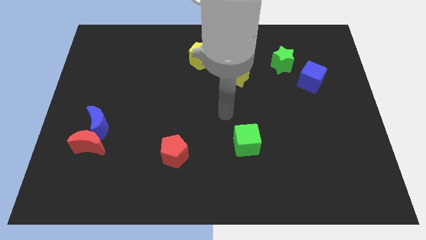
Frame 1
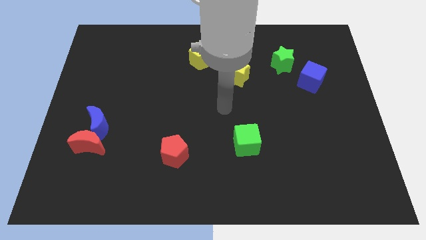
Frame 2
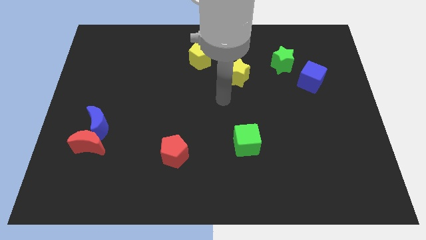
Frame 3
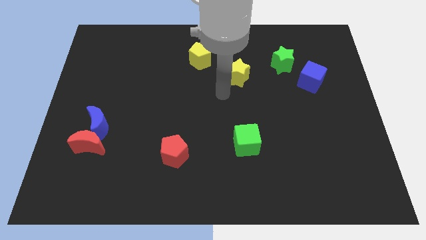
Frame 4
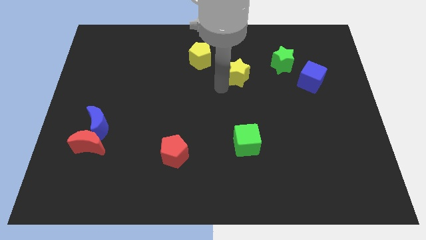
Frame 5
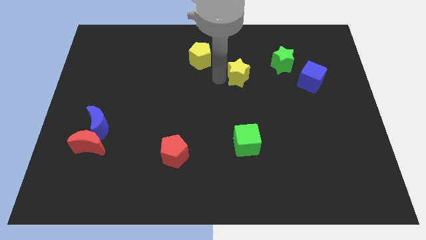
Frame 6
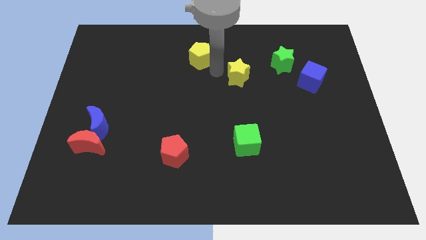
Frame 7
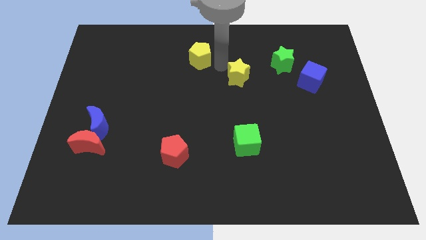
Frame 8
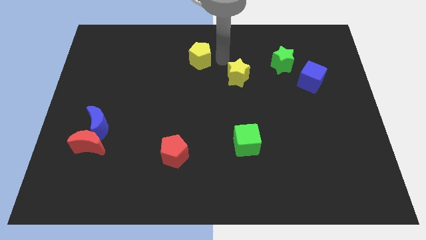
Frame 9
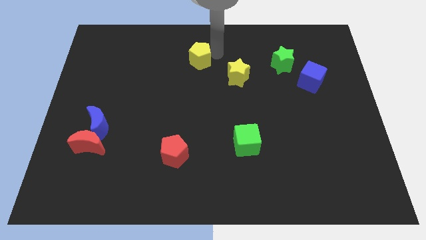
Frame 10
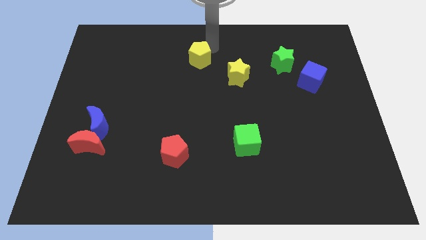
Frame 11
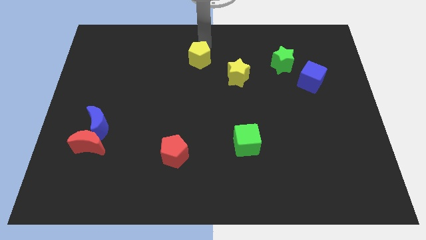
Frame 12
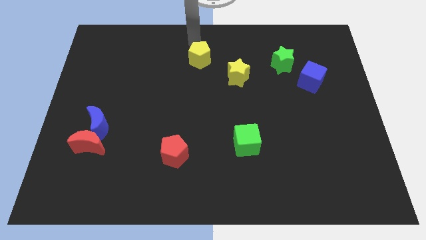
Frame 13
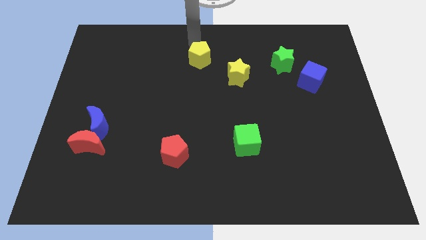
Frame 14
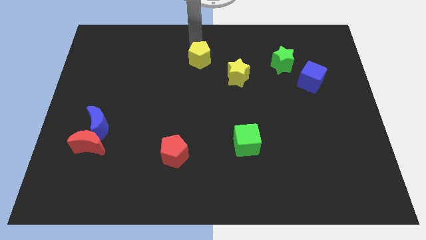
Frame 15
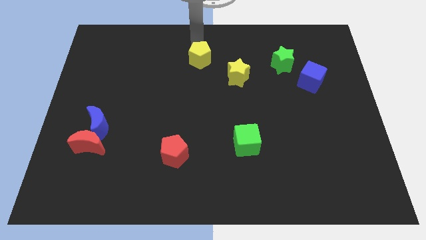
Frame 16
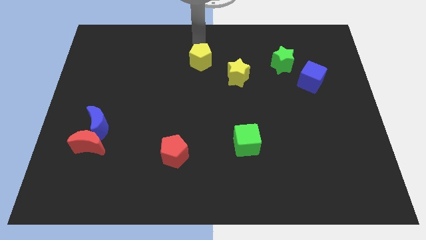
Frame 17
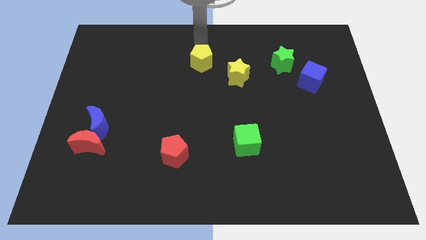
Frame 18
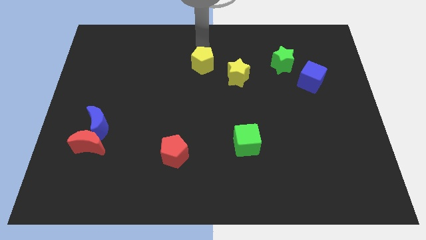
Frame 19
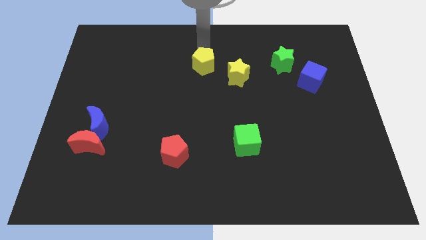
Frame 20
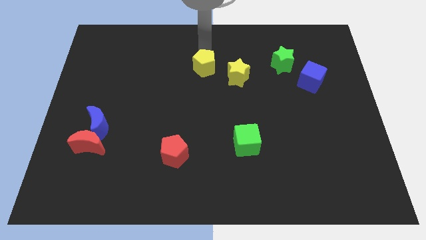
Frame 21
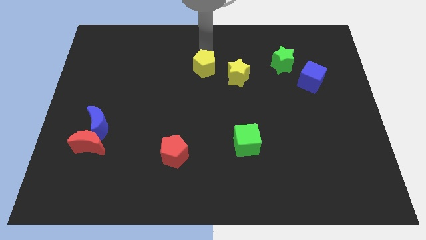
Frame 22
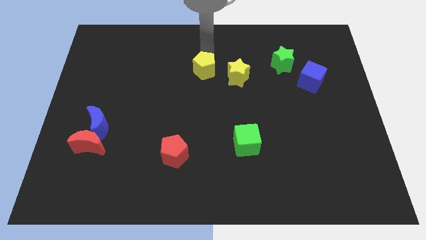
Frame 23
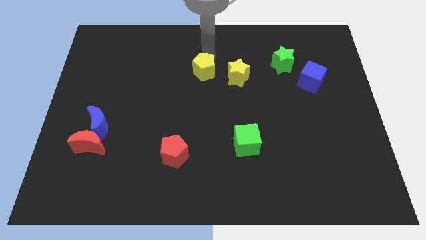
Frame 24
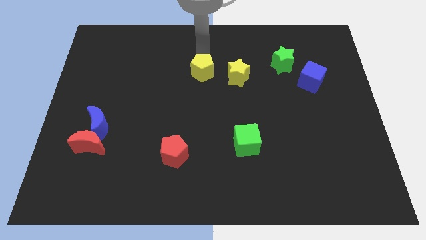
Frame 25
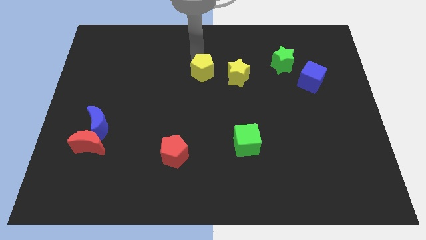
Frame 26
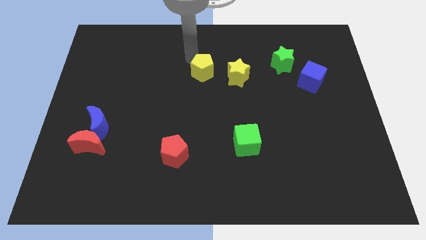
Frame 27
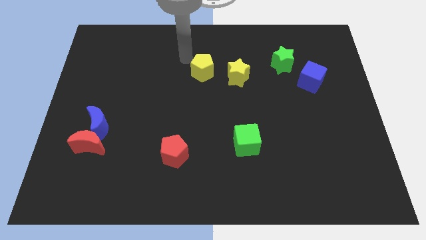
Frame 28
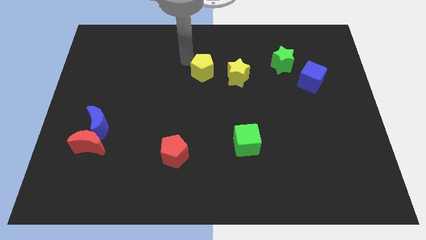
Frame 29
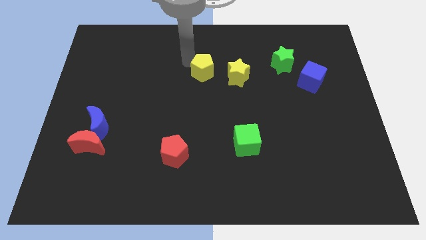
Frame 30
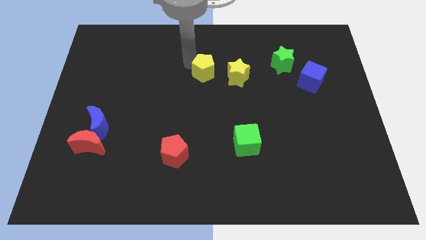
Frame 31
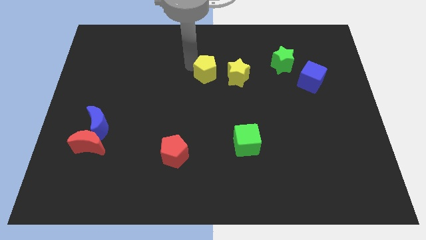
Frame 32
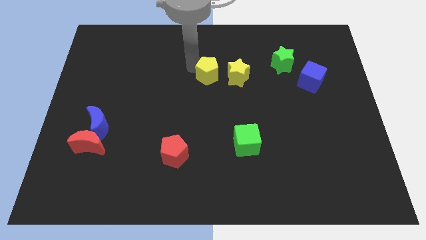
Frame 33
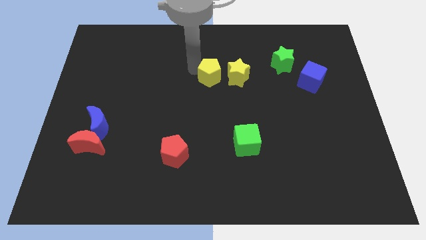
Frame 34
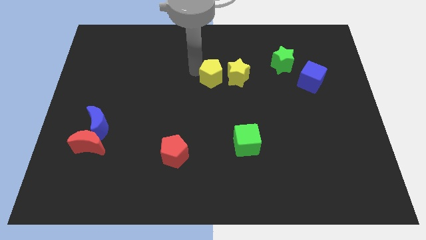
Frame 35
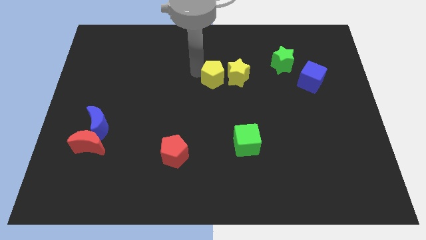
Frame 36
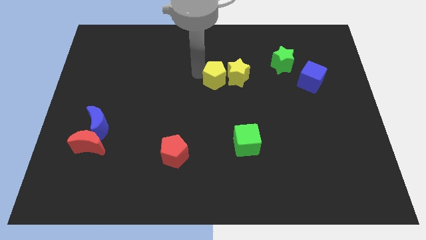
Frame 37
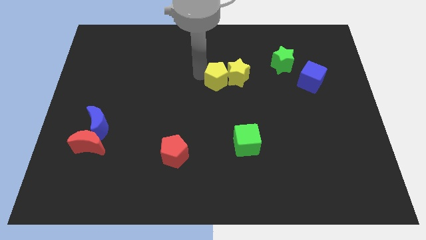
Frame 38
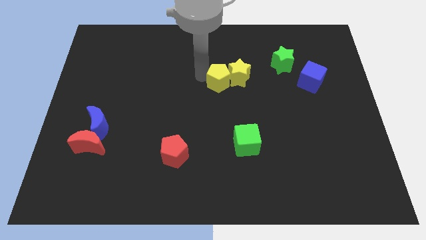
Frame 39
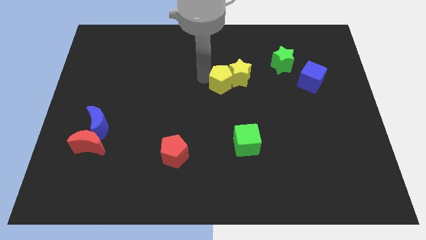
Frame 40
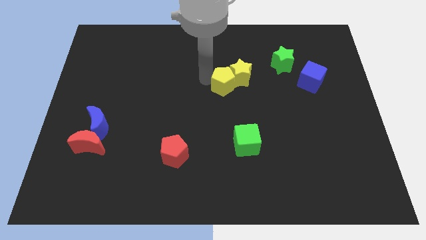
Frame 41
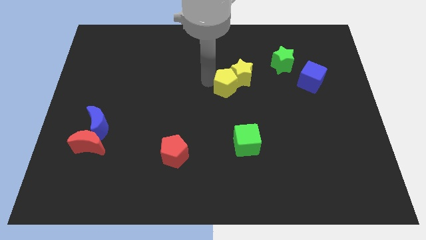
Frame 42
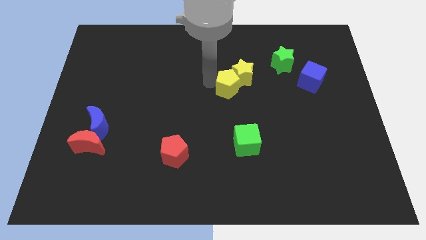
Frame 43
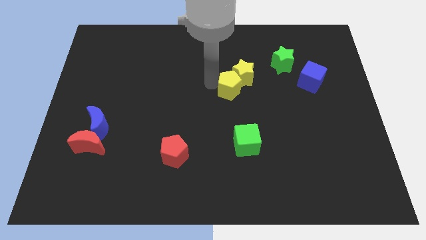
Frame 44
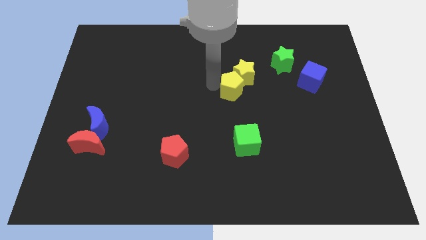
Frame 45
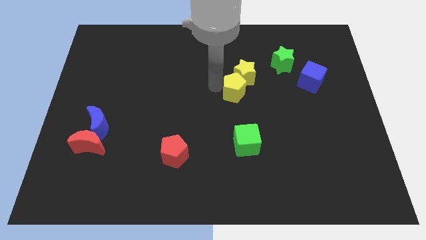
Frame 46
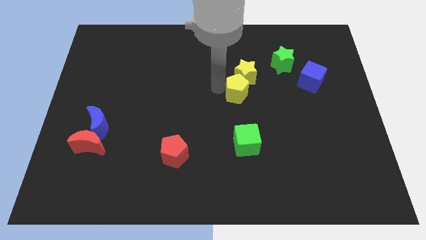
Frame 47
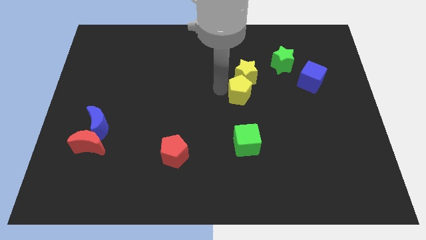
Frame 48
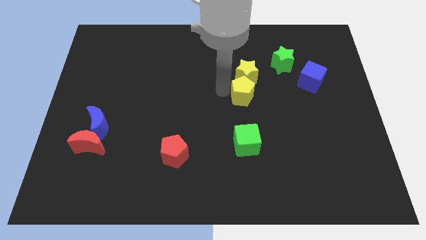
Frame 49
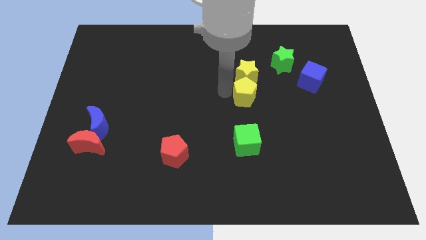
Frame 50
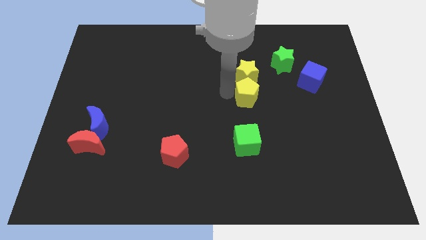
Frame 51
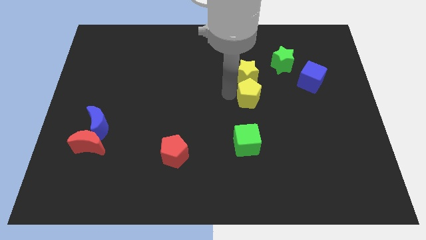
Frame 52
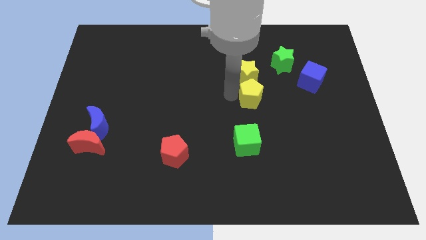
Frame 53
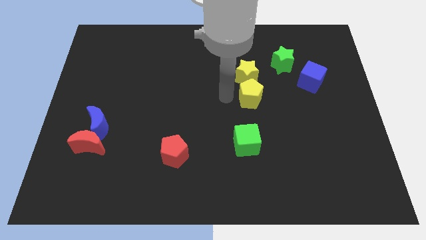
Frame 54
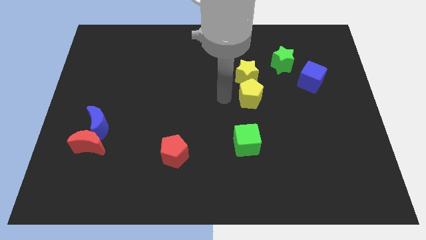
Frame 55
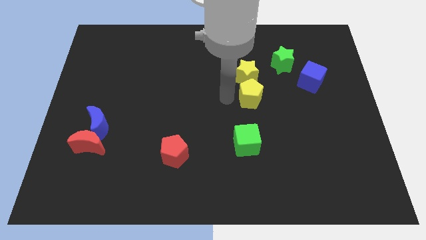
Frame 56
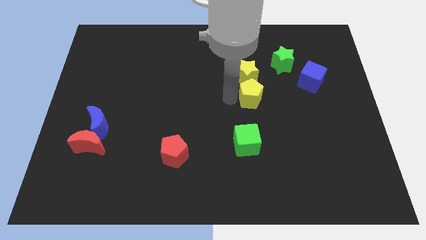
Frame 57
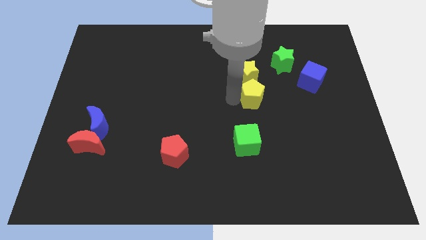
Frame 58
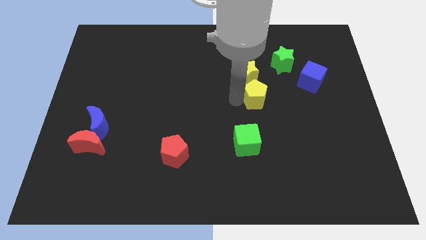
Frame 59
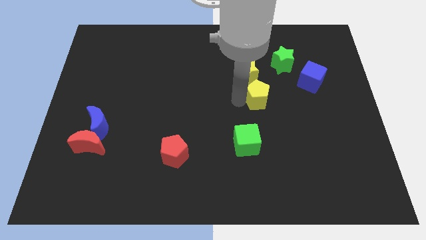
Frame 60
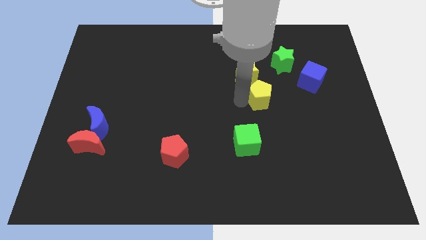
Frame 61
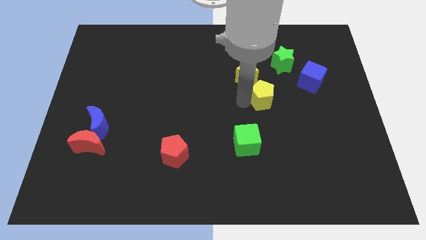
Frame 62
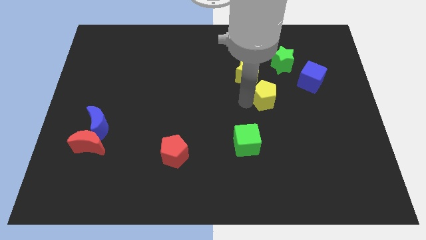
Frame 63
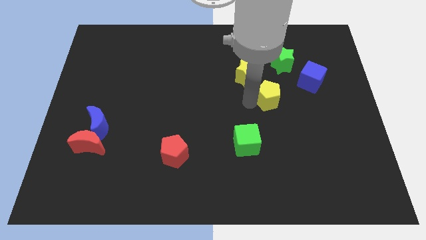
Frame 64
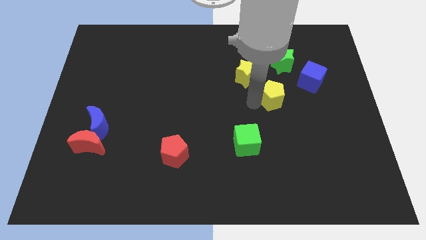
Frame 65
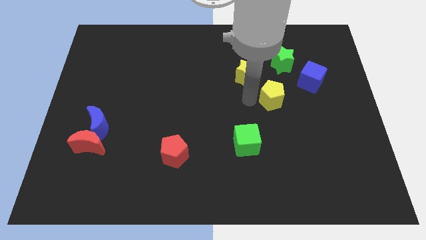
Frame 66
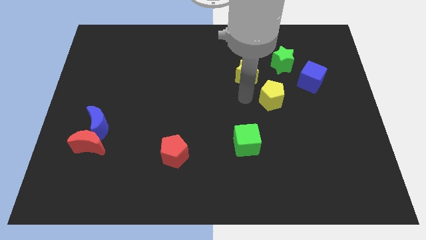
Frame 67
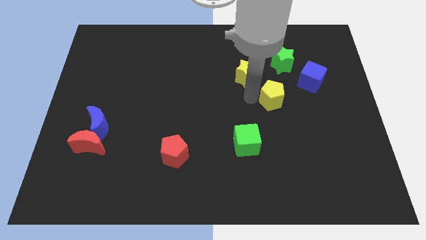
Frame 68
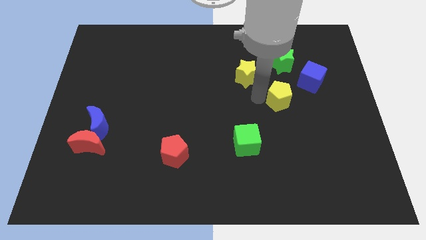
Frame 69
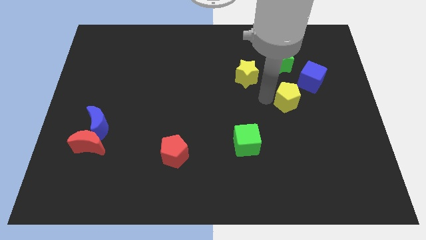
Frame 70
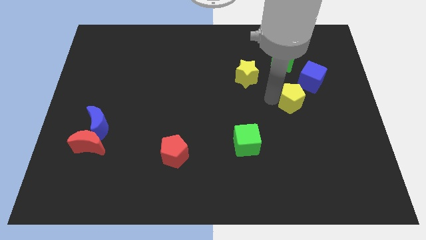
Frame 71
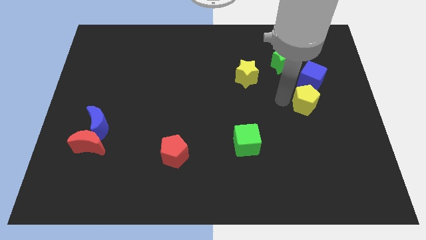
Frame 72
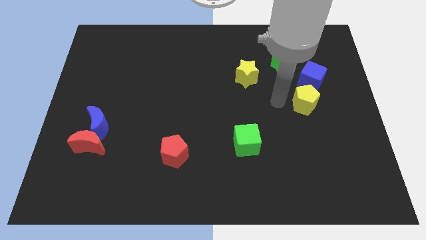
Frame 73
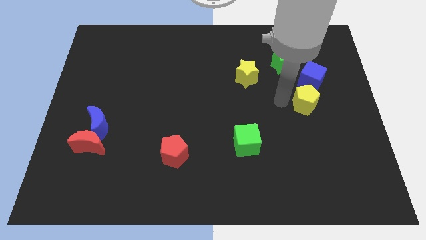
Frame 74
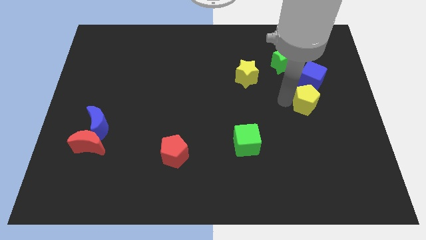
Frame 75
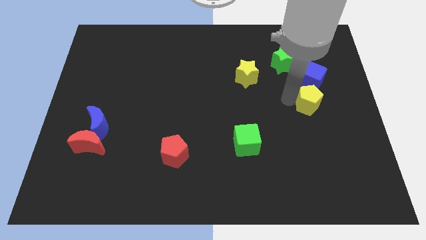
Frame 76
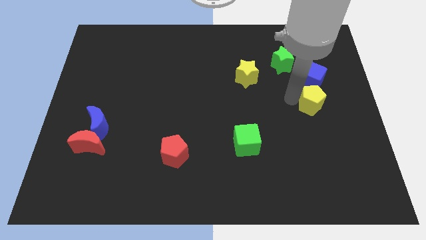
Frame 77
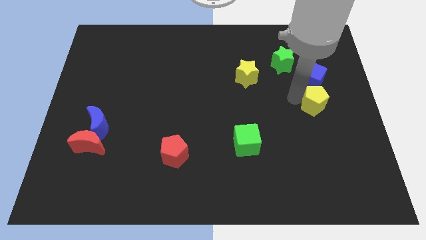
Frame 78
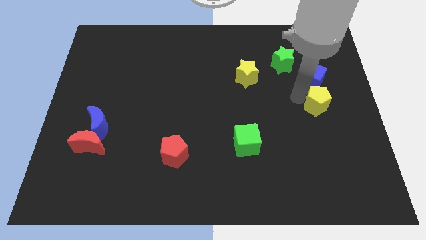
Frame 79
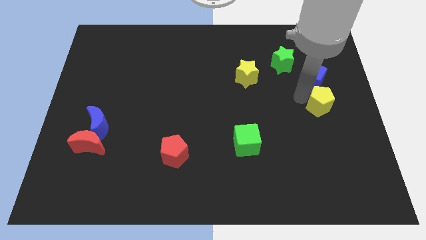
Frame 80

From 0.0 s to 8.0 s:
put the yellow pentagon to the center right
